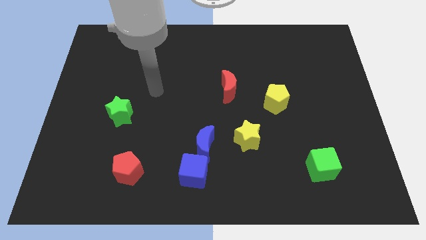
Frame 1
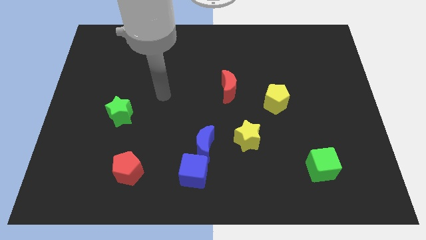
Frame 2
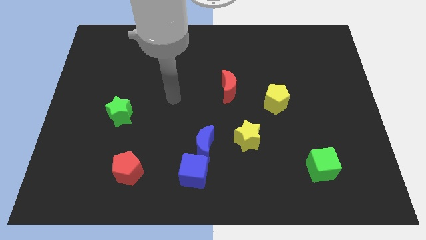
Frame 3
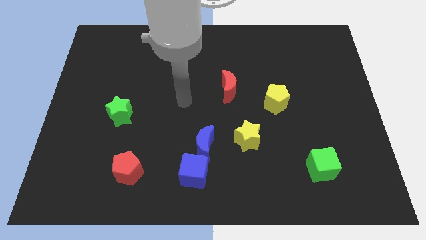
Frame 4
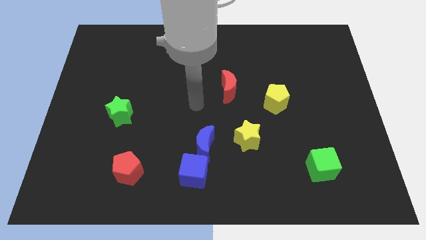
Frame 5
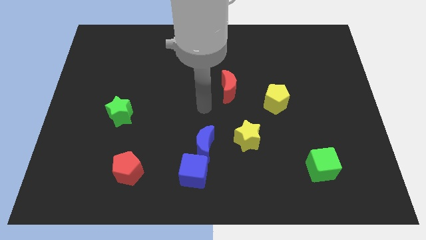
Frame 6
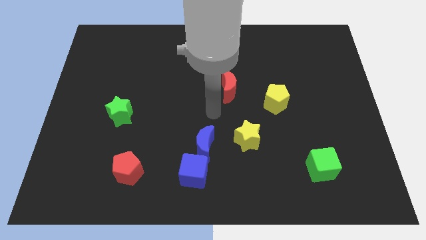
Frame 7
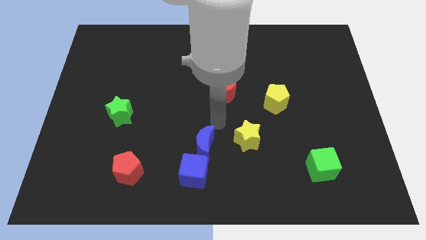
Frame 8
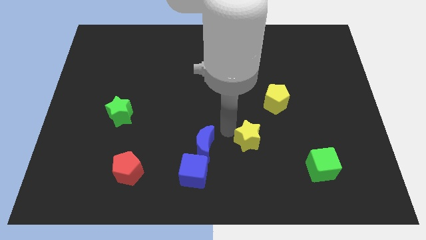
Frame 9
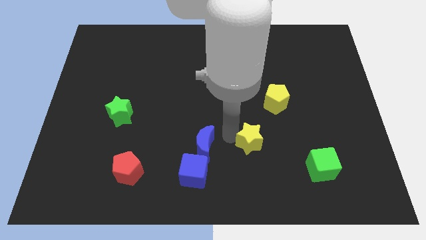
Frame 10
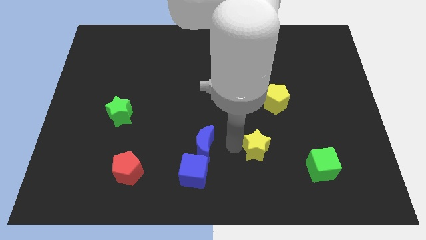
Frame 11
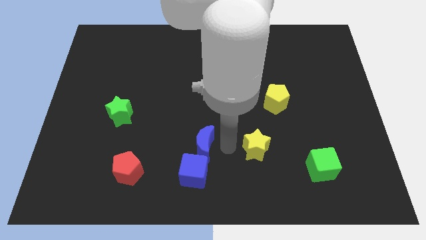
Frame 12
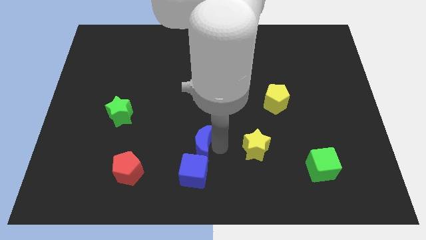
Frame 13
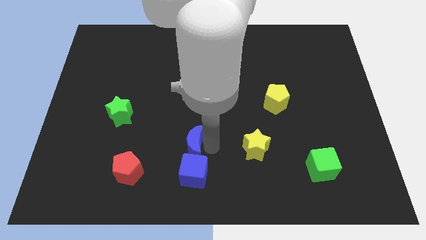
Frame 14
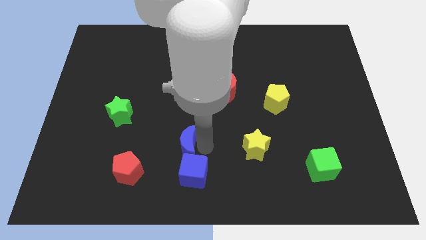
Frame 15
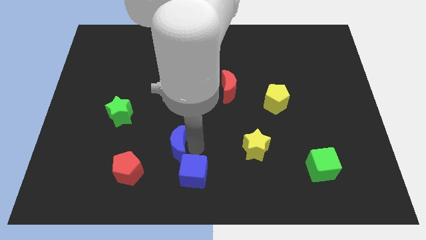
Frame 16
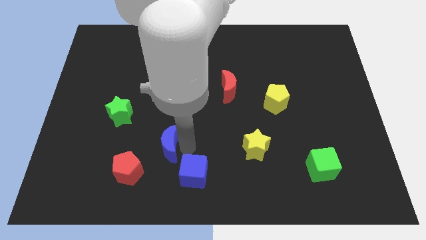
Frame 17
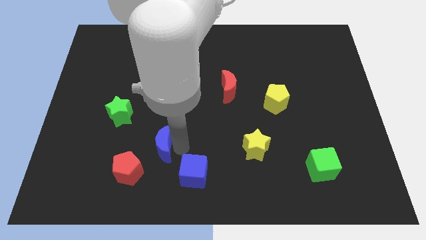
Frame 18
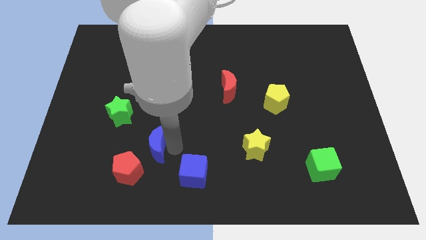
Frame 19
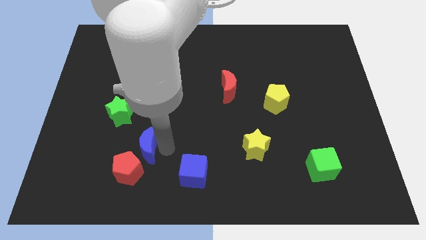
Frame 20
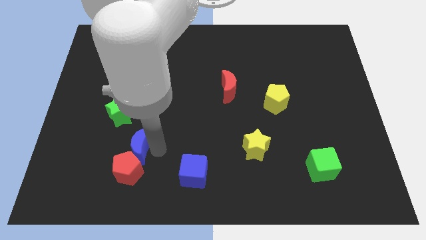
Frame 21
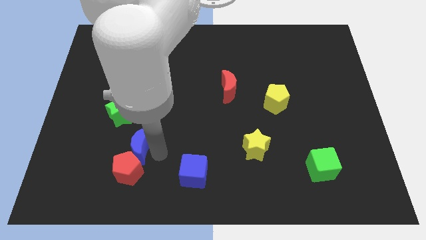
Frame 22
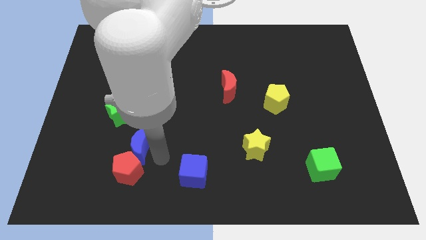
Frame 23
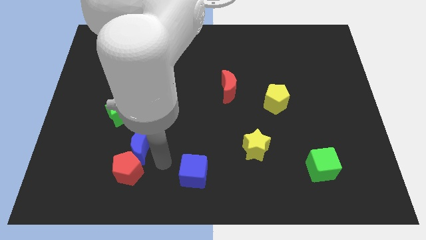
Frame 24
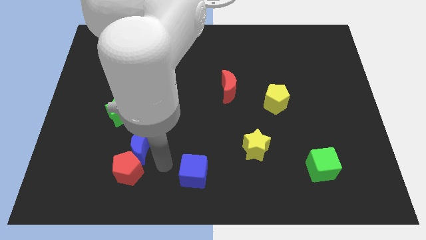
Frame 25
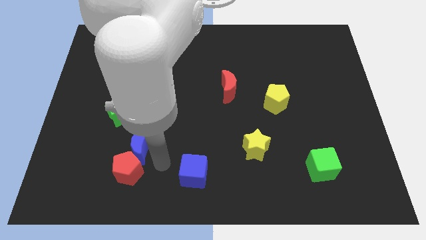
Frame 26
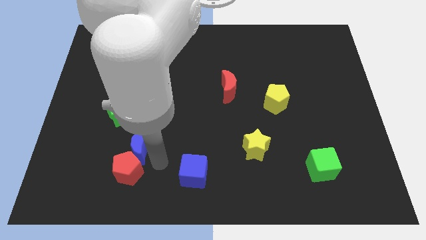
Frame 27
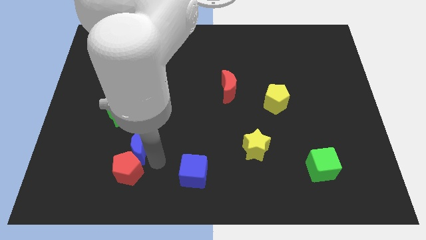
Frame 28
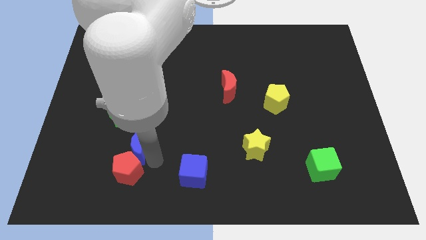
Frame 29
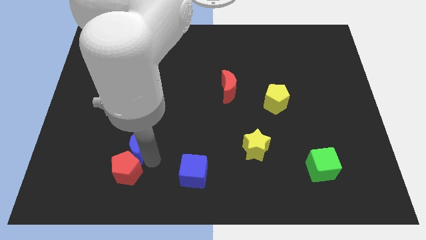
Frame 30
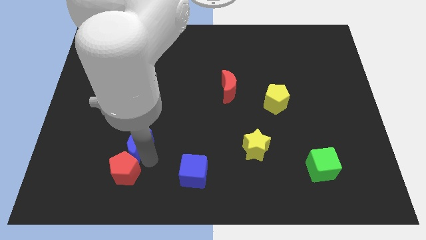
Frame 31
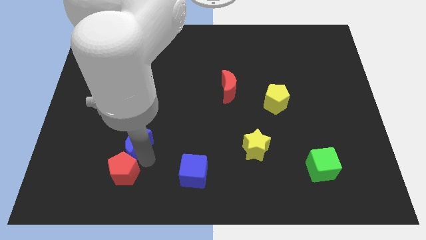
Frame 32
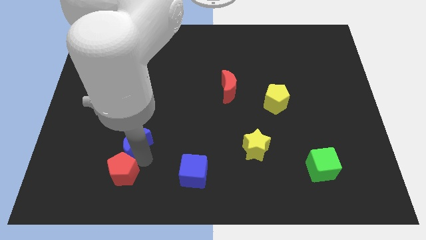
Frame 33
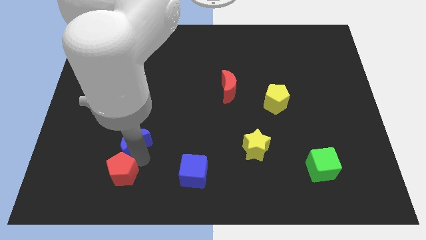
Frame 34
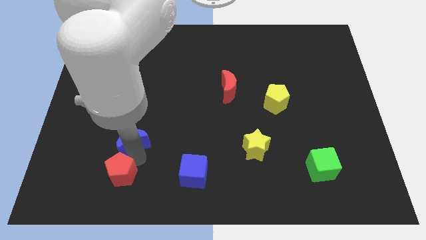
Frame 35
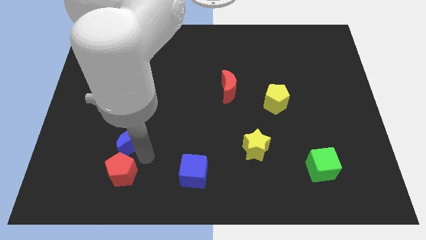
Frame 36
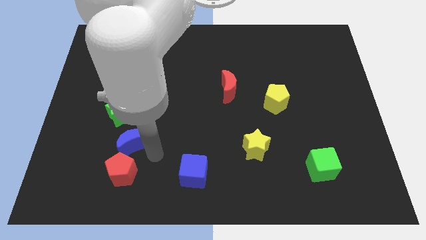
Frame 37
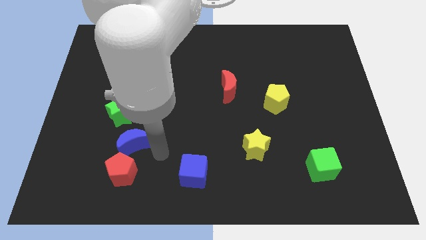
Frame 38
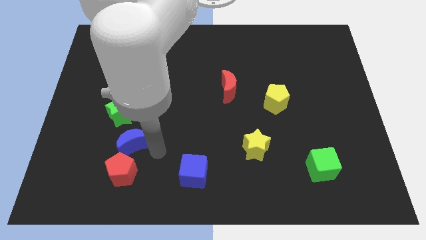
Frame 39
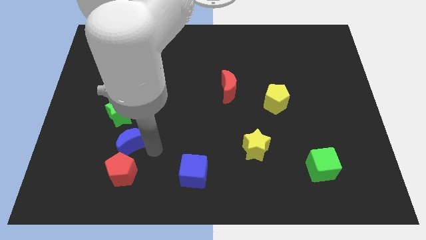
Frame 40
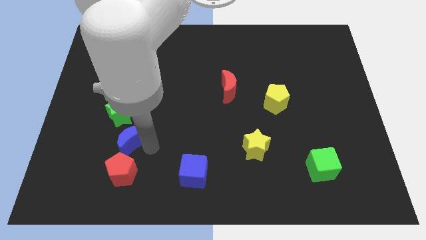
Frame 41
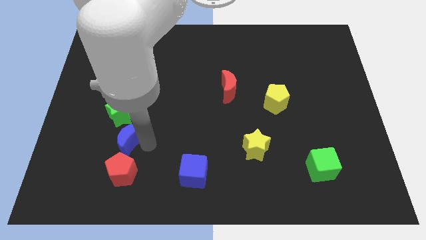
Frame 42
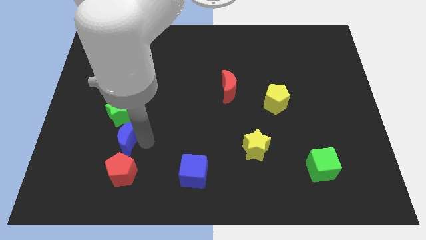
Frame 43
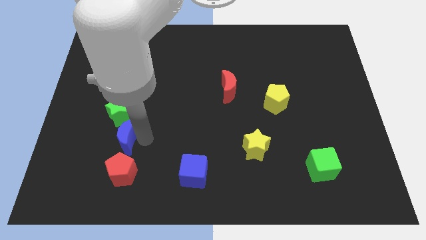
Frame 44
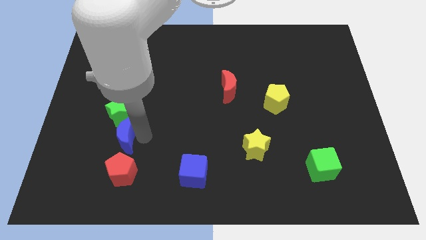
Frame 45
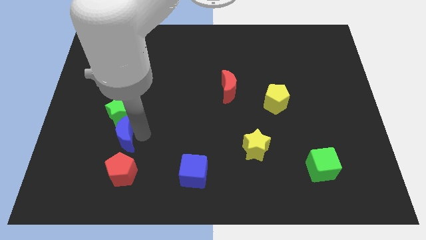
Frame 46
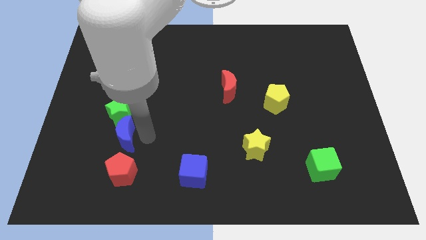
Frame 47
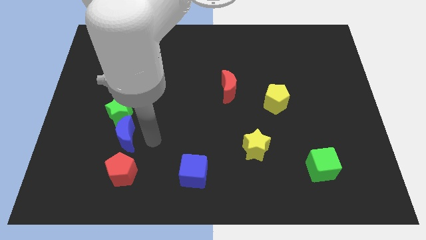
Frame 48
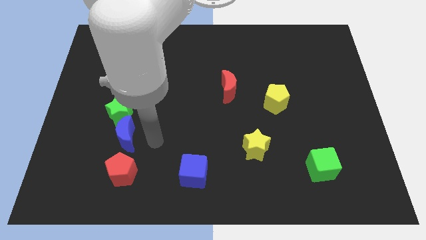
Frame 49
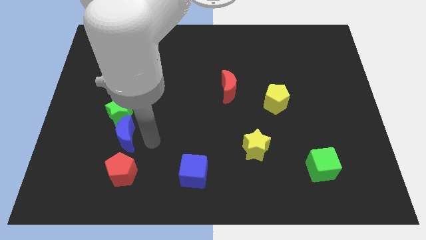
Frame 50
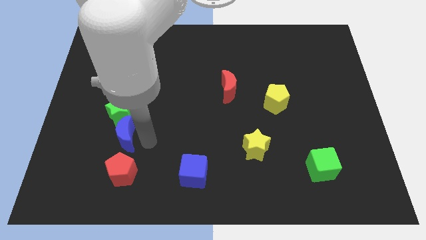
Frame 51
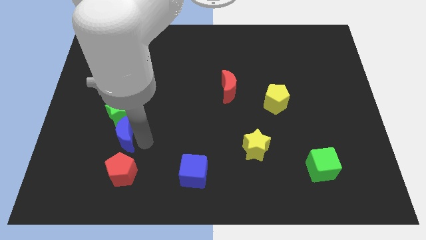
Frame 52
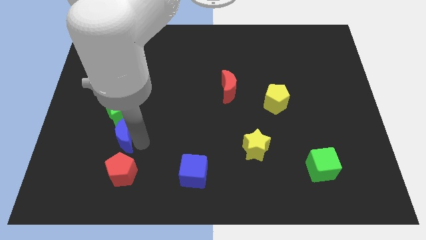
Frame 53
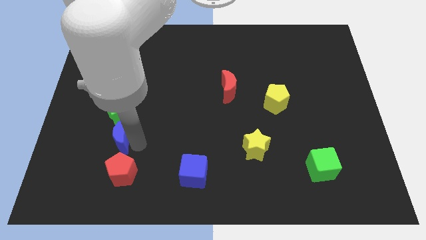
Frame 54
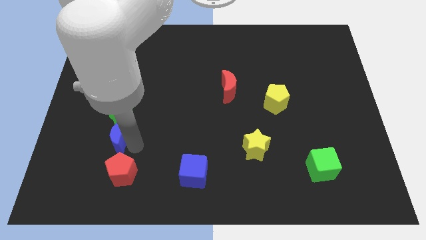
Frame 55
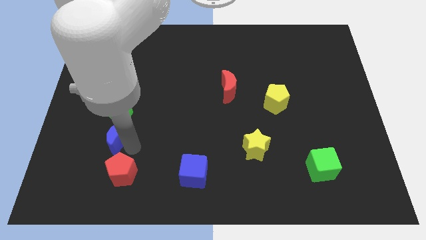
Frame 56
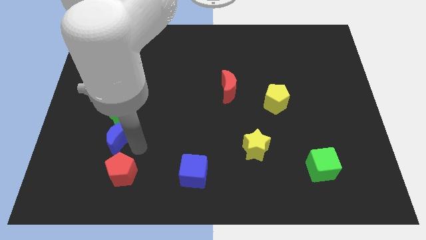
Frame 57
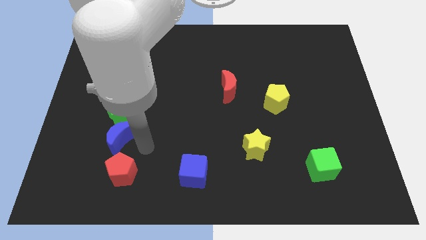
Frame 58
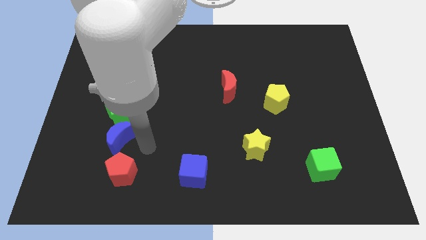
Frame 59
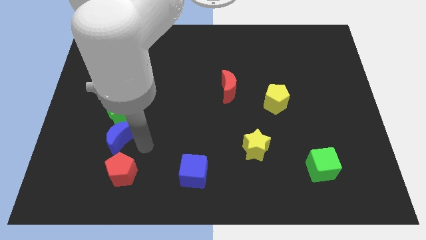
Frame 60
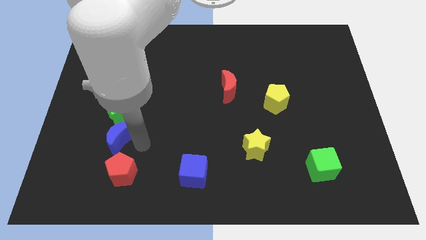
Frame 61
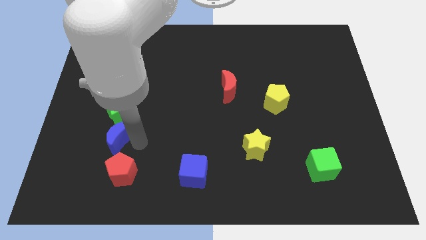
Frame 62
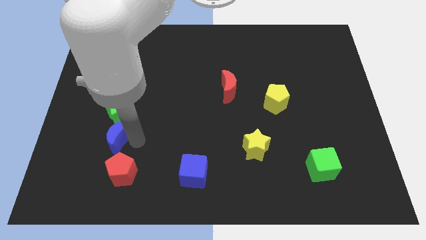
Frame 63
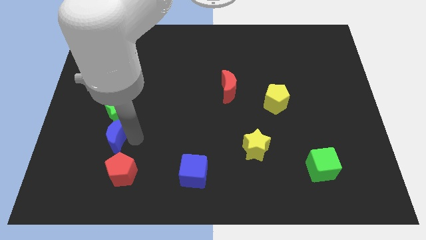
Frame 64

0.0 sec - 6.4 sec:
slide the blue moon diagonally down and to the left of the green star

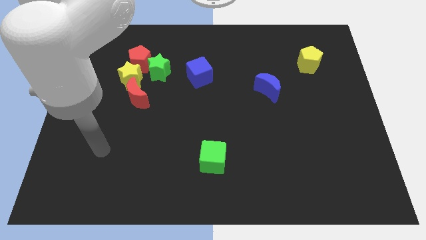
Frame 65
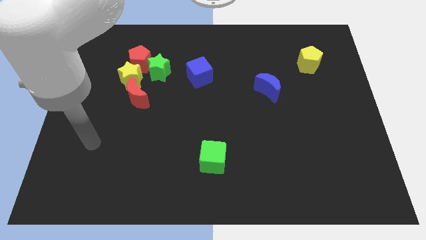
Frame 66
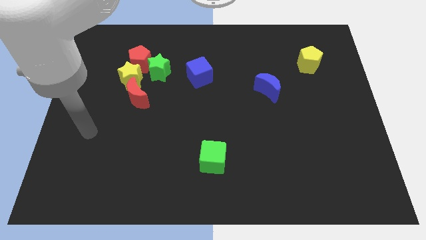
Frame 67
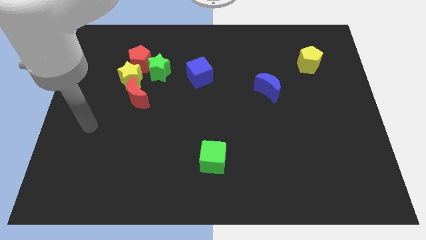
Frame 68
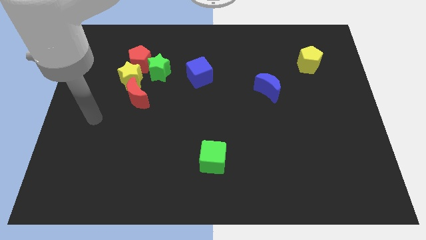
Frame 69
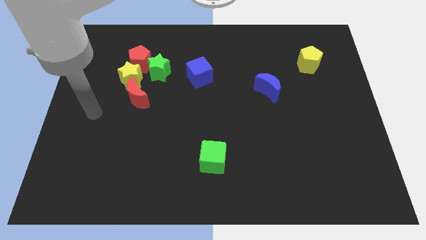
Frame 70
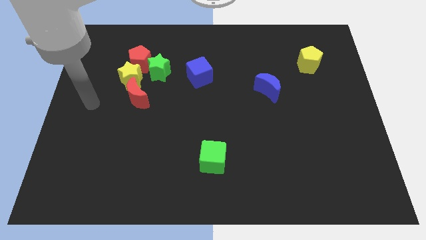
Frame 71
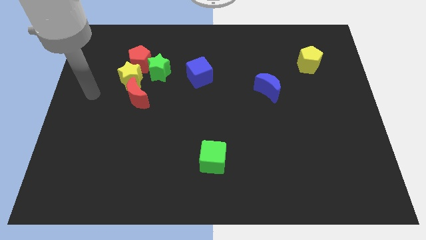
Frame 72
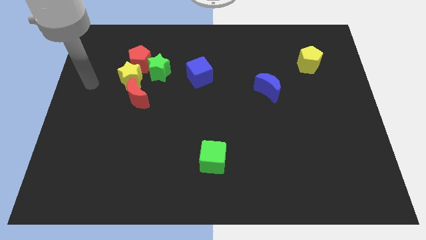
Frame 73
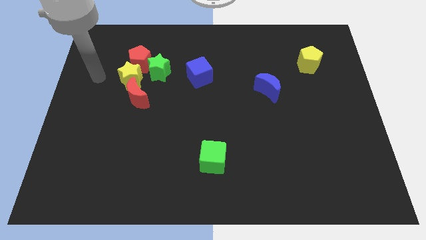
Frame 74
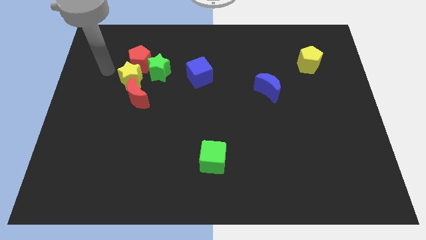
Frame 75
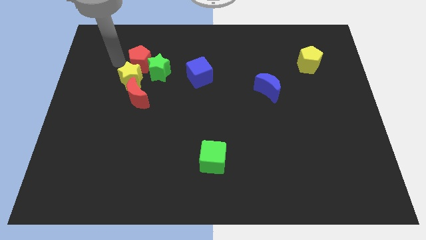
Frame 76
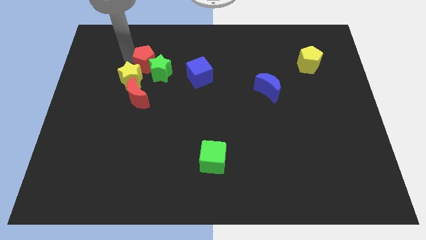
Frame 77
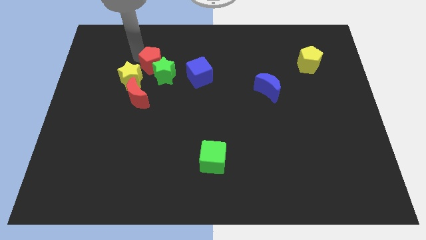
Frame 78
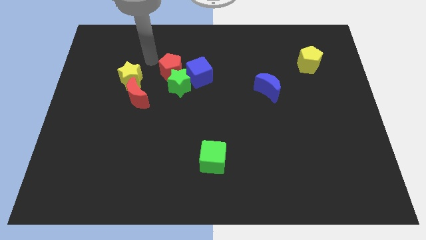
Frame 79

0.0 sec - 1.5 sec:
slide the green star just right of the red moon
